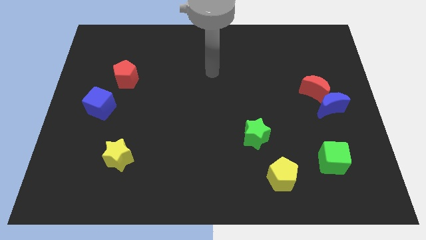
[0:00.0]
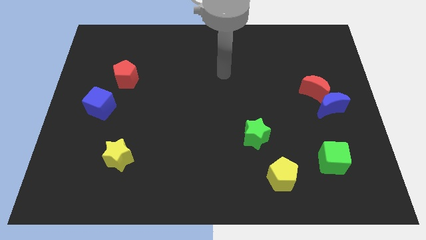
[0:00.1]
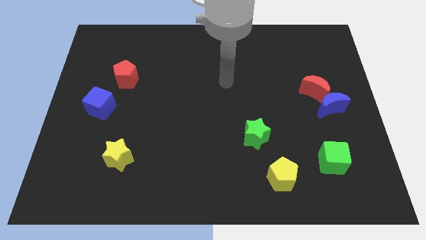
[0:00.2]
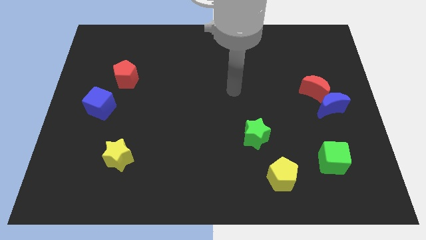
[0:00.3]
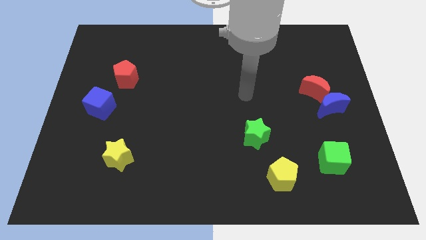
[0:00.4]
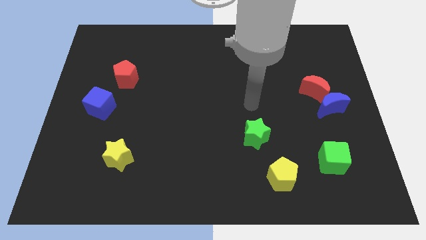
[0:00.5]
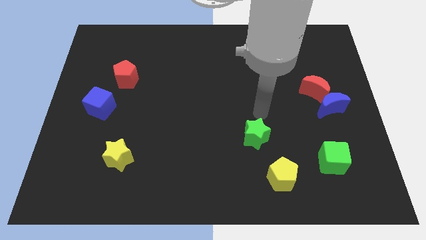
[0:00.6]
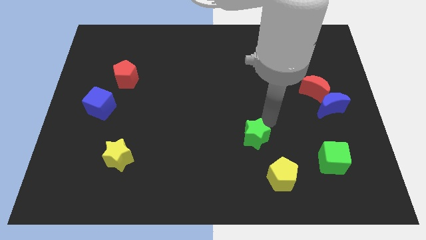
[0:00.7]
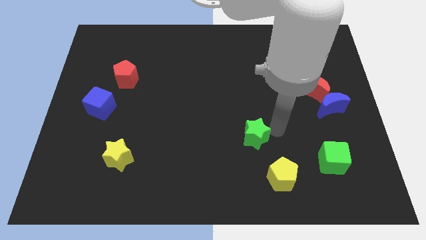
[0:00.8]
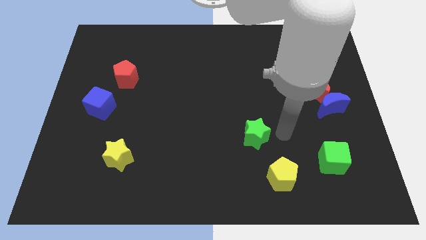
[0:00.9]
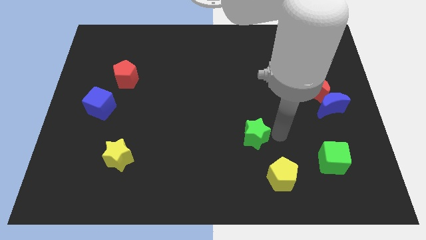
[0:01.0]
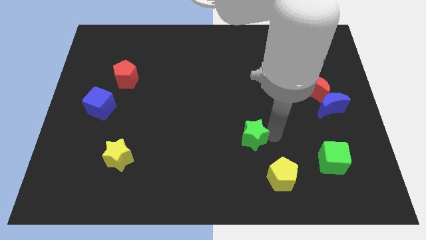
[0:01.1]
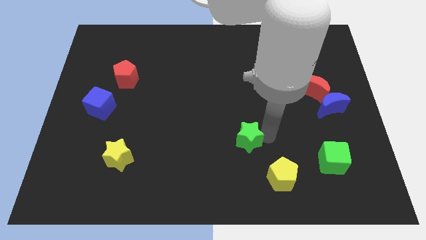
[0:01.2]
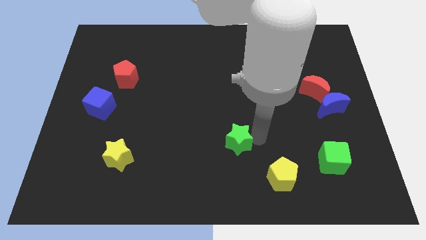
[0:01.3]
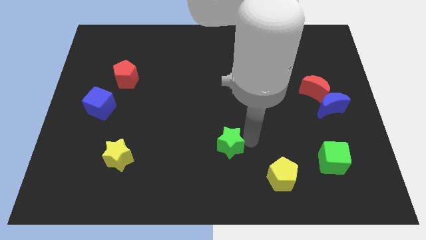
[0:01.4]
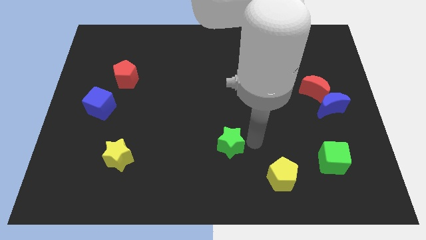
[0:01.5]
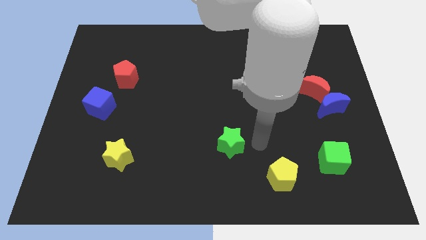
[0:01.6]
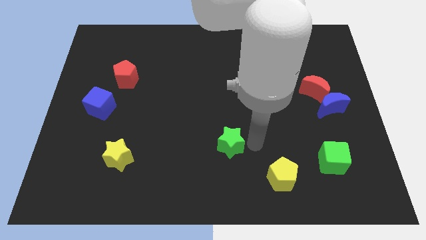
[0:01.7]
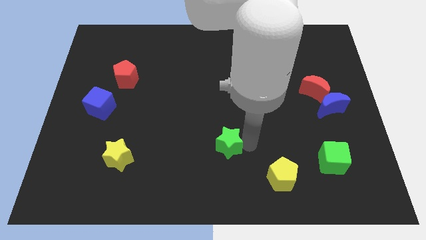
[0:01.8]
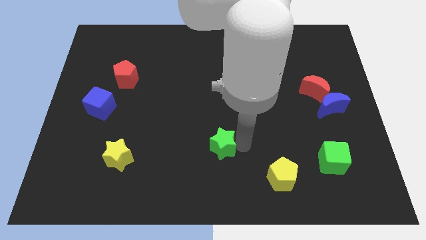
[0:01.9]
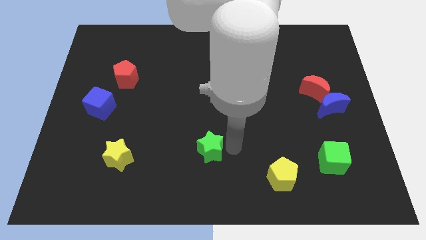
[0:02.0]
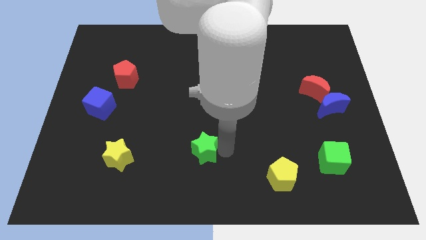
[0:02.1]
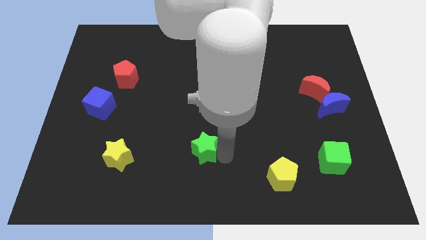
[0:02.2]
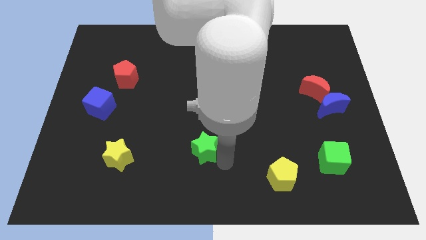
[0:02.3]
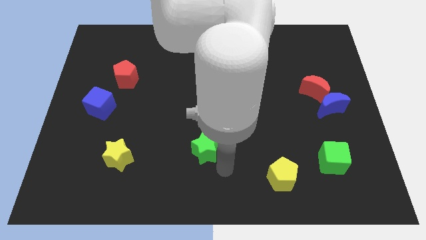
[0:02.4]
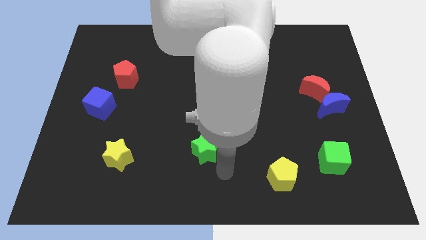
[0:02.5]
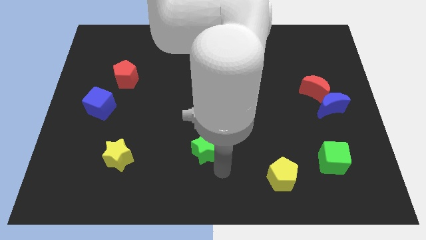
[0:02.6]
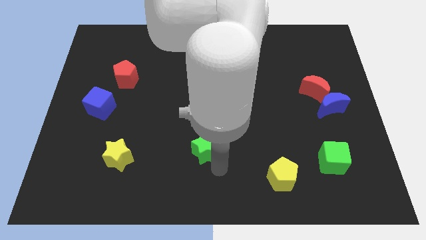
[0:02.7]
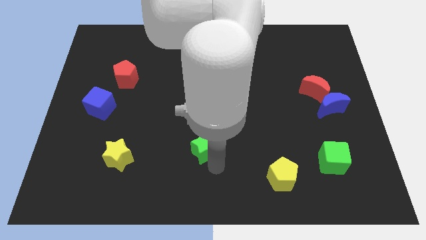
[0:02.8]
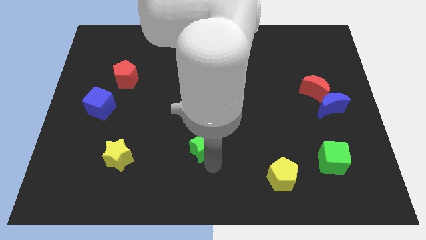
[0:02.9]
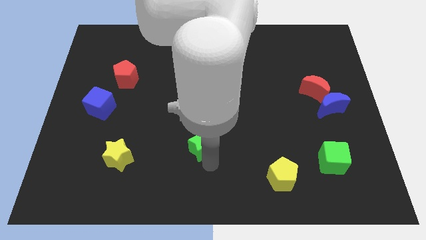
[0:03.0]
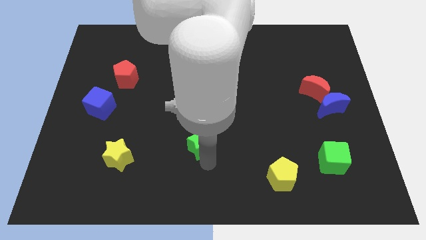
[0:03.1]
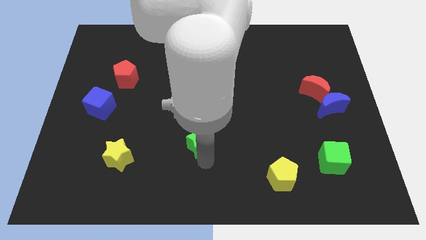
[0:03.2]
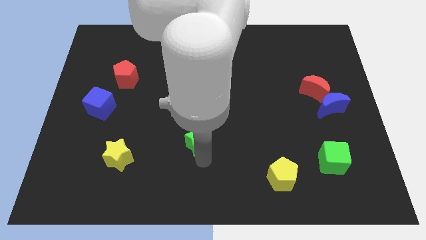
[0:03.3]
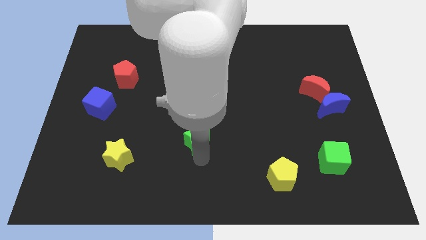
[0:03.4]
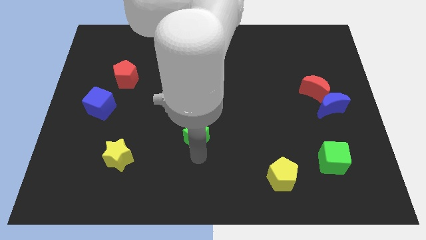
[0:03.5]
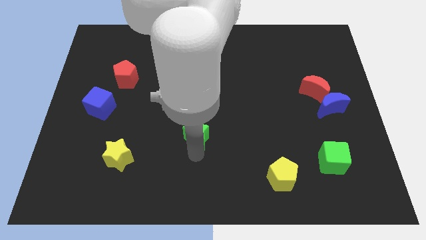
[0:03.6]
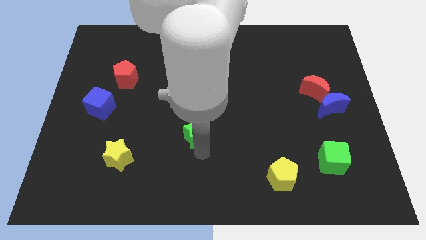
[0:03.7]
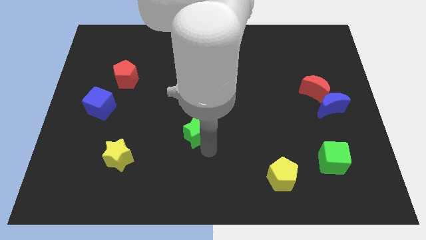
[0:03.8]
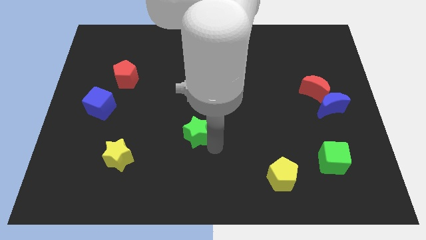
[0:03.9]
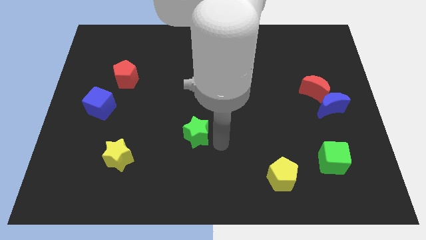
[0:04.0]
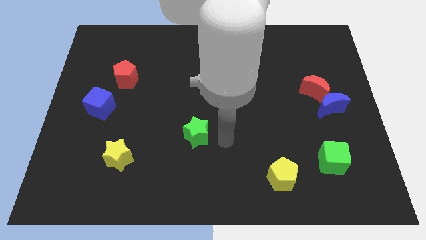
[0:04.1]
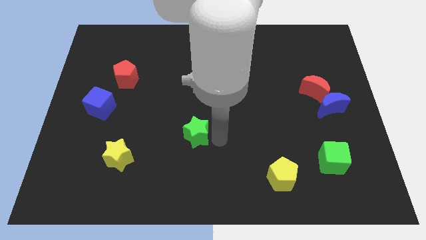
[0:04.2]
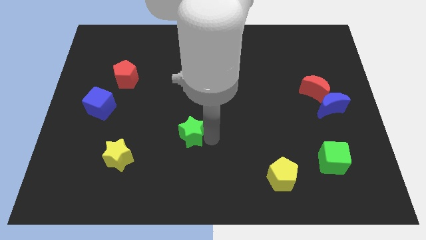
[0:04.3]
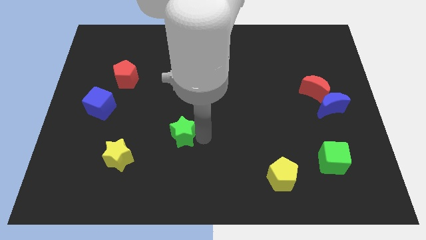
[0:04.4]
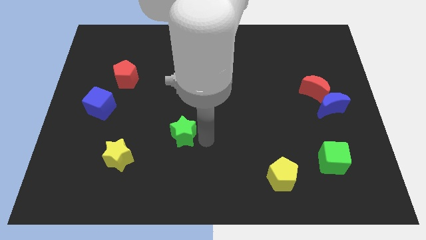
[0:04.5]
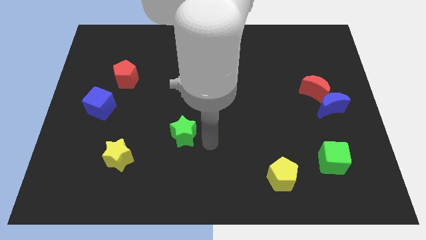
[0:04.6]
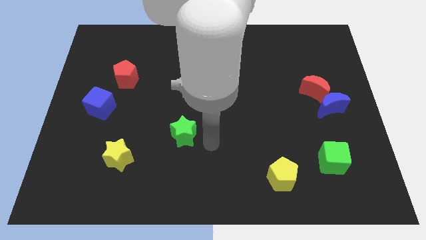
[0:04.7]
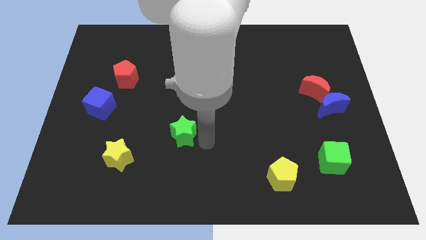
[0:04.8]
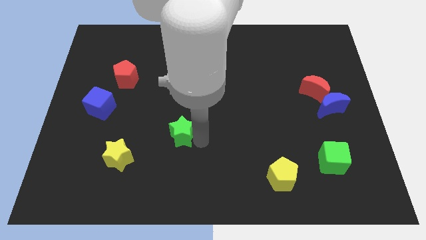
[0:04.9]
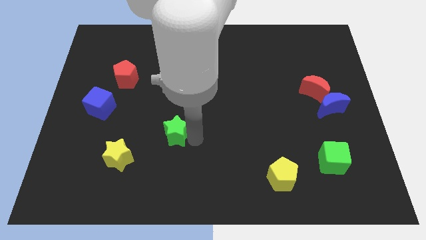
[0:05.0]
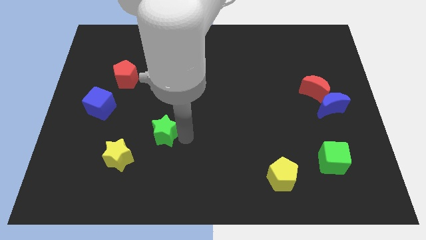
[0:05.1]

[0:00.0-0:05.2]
move the green star to the left

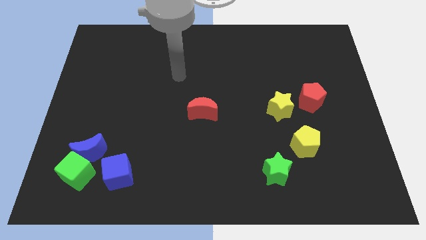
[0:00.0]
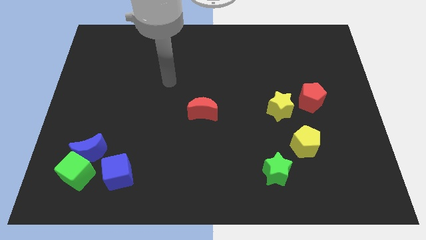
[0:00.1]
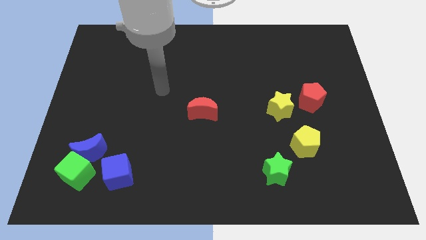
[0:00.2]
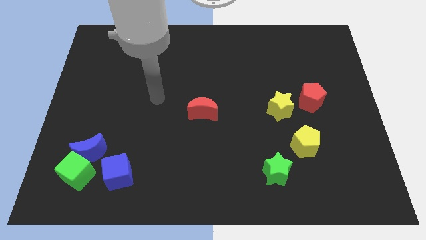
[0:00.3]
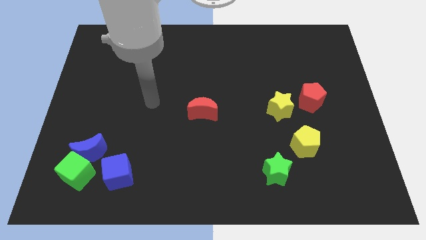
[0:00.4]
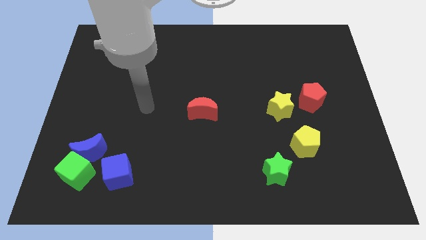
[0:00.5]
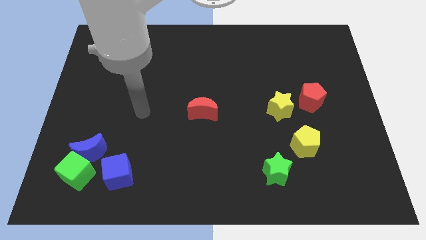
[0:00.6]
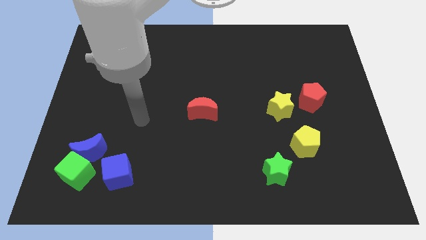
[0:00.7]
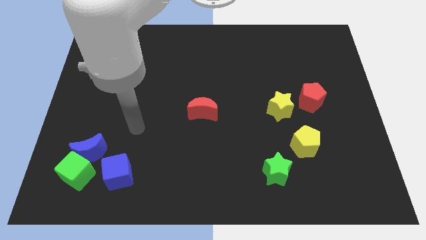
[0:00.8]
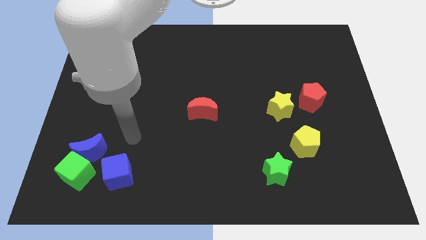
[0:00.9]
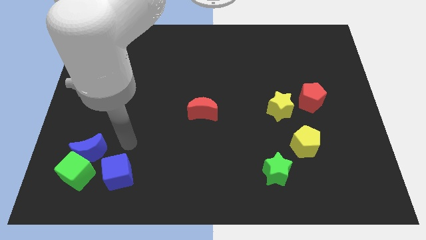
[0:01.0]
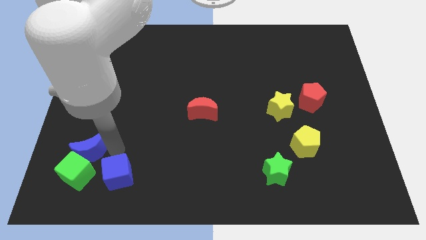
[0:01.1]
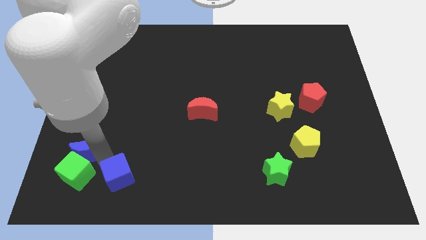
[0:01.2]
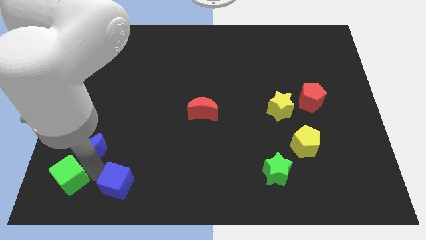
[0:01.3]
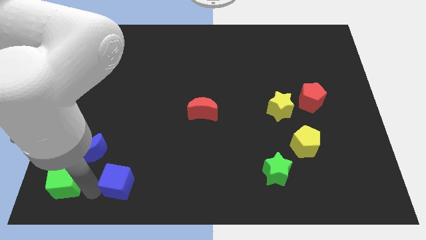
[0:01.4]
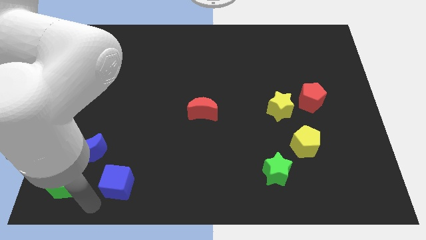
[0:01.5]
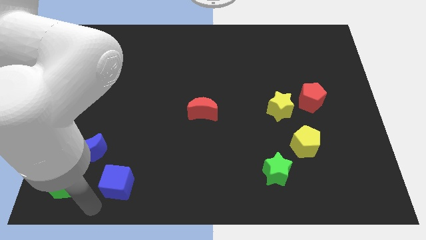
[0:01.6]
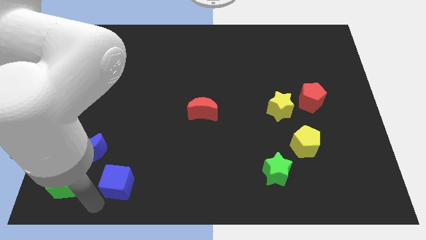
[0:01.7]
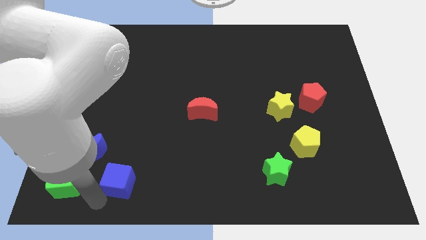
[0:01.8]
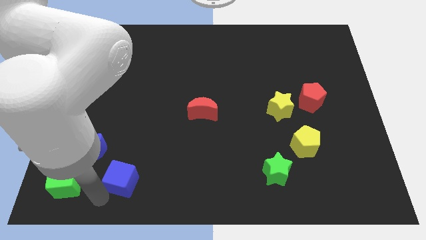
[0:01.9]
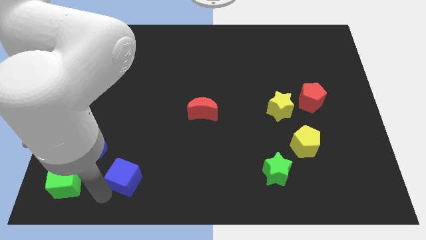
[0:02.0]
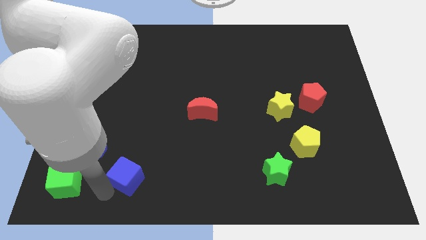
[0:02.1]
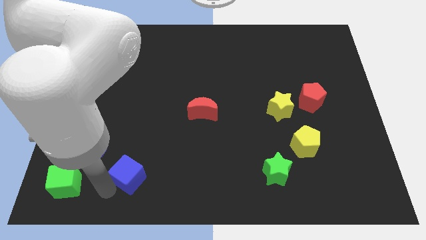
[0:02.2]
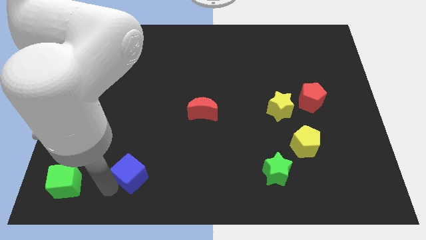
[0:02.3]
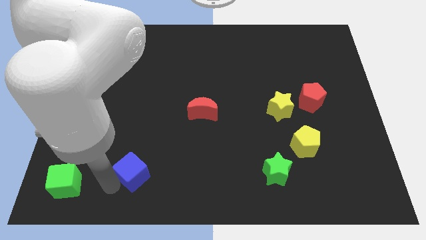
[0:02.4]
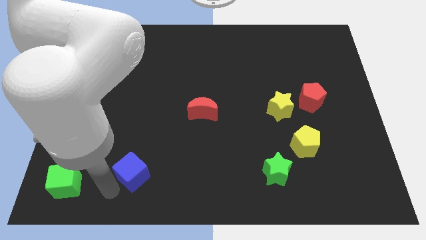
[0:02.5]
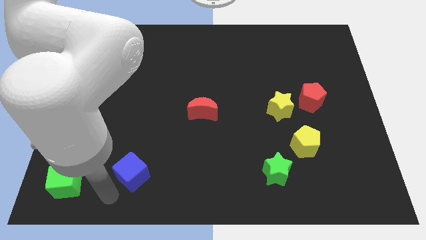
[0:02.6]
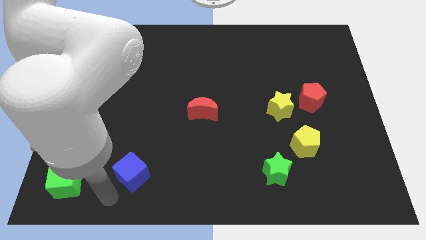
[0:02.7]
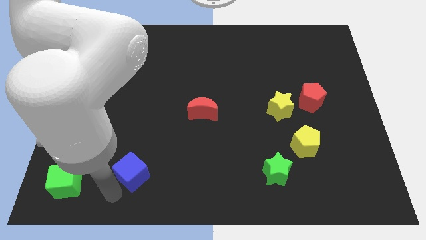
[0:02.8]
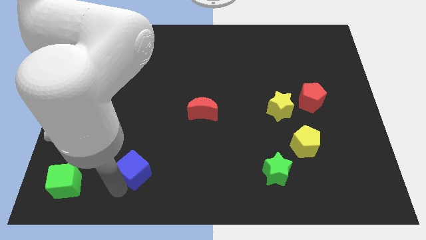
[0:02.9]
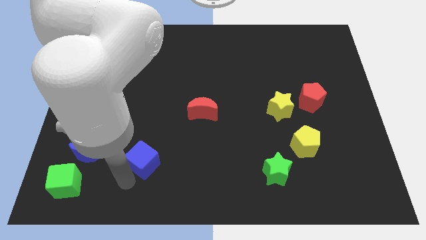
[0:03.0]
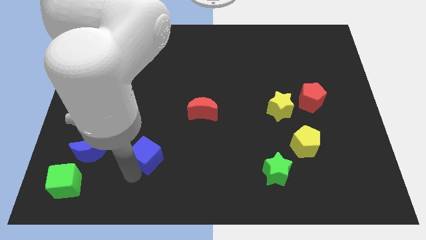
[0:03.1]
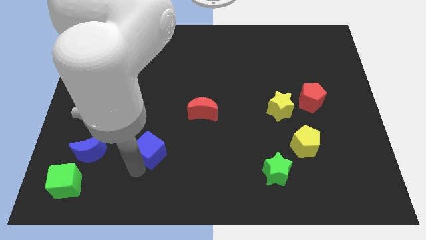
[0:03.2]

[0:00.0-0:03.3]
move the blue cube slightly up and to the right
